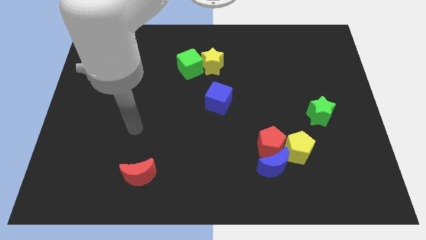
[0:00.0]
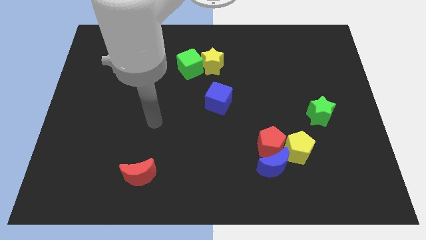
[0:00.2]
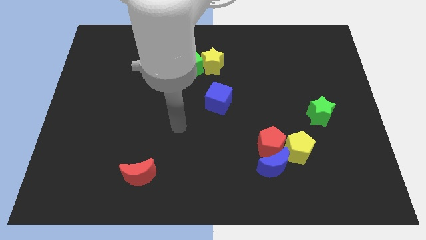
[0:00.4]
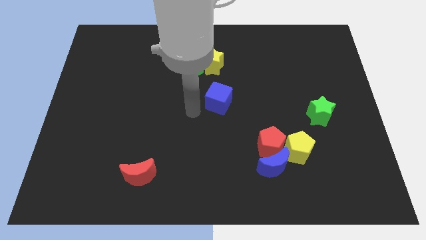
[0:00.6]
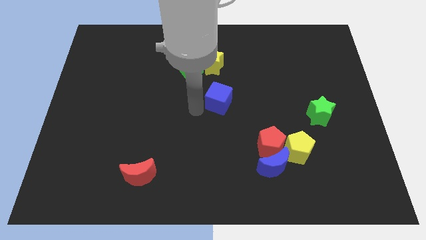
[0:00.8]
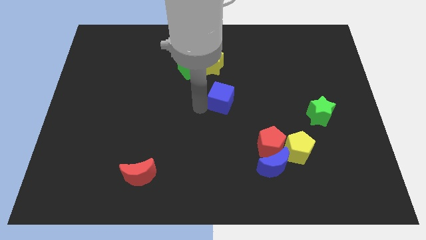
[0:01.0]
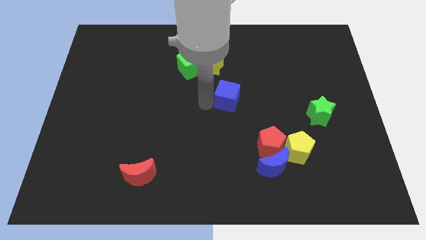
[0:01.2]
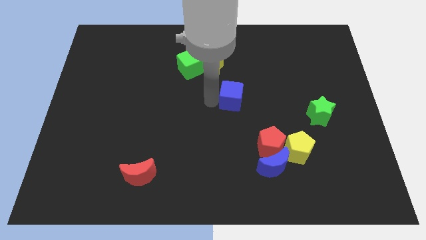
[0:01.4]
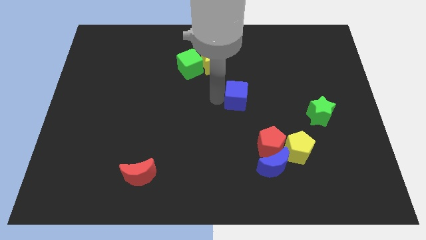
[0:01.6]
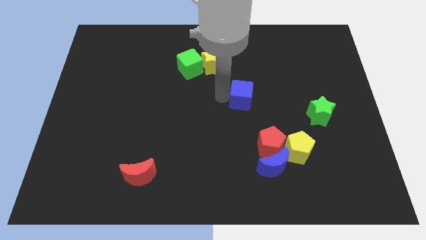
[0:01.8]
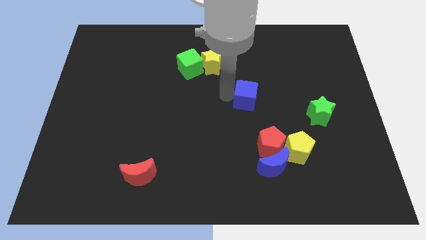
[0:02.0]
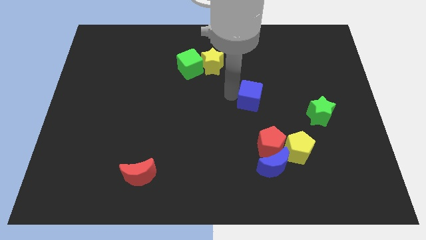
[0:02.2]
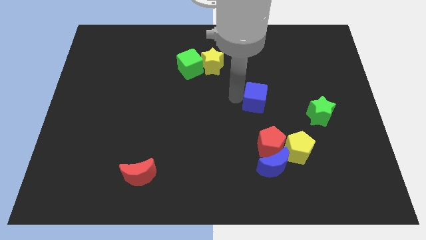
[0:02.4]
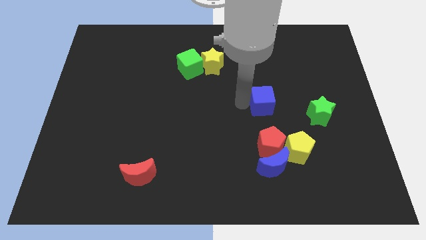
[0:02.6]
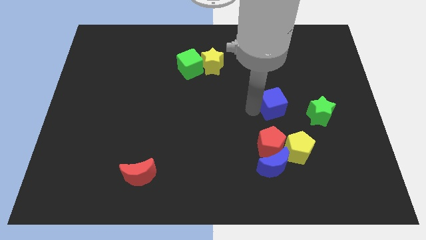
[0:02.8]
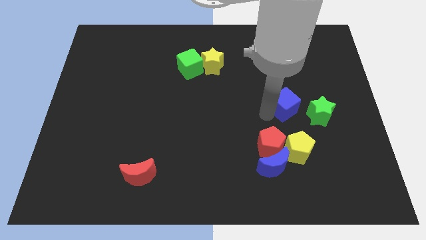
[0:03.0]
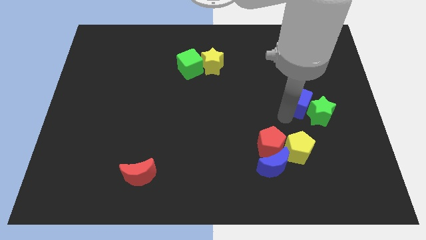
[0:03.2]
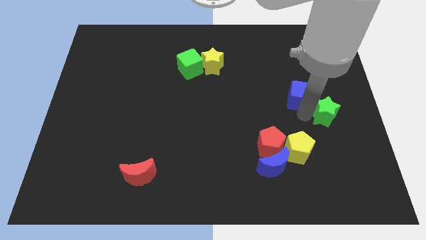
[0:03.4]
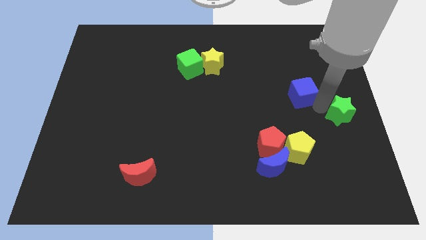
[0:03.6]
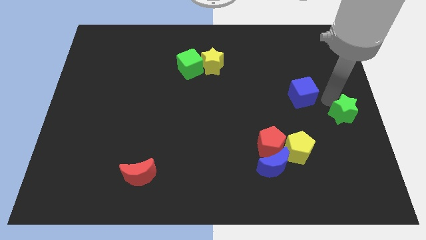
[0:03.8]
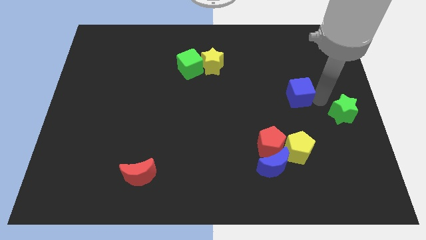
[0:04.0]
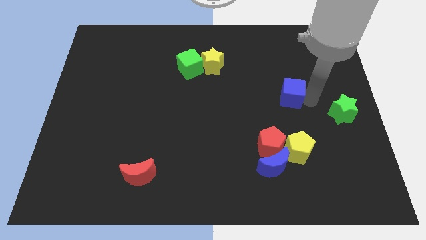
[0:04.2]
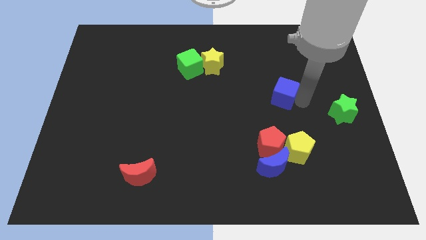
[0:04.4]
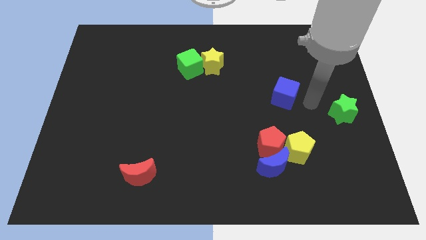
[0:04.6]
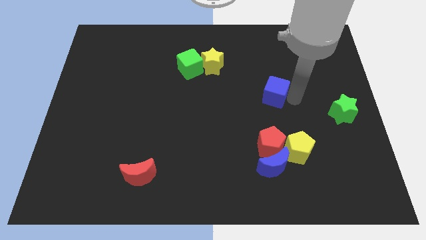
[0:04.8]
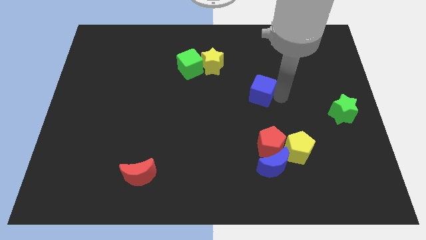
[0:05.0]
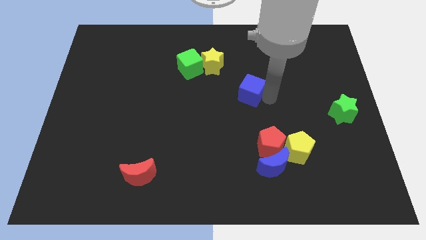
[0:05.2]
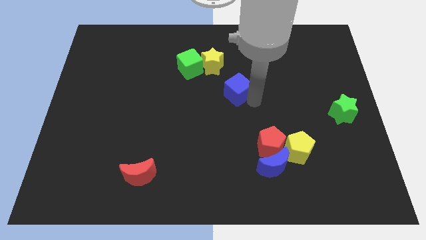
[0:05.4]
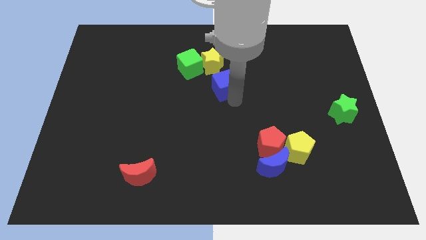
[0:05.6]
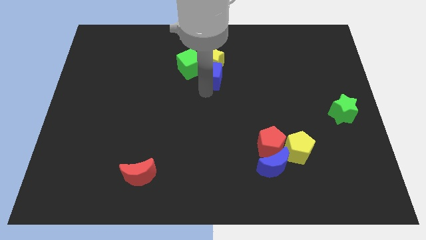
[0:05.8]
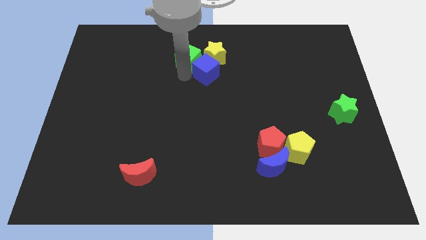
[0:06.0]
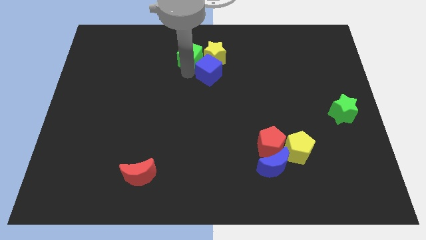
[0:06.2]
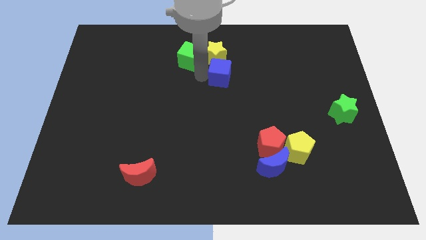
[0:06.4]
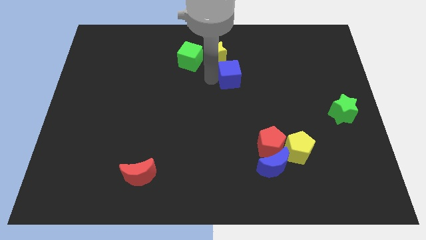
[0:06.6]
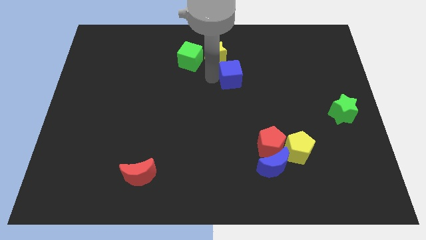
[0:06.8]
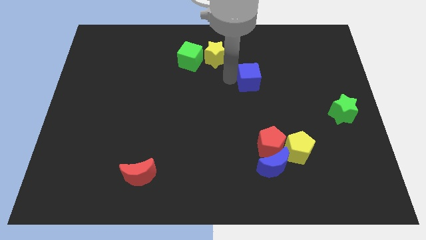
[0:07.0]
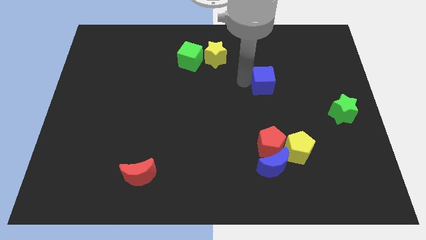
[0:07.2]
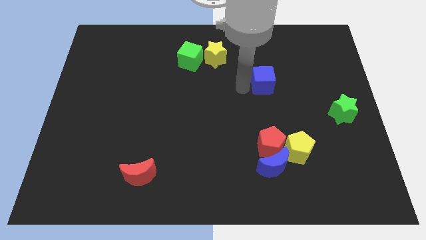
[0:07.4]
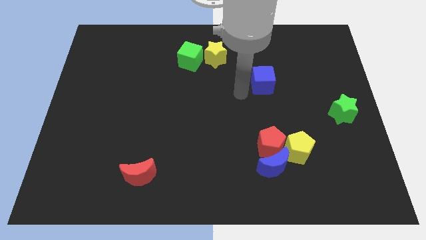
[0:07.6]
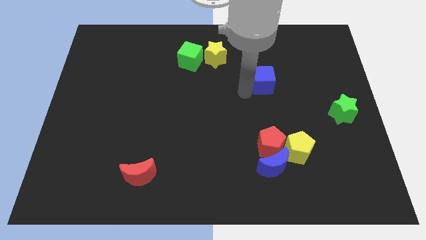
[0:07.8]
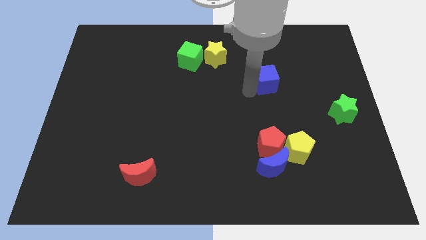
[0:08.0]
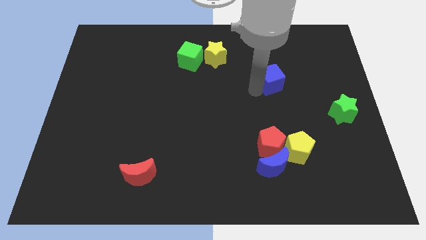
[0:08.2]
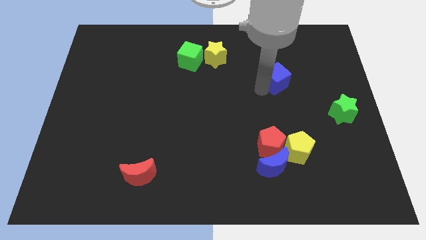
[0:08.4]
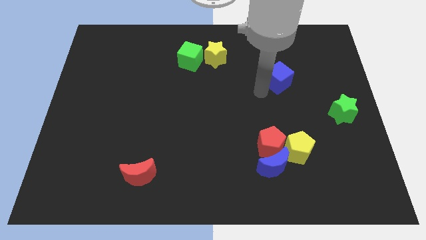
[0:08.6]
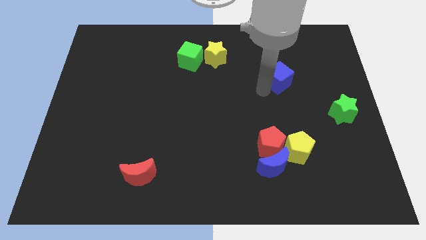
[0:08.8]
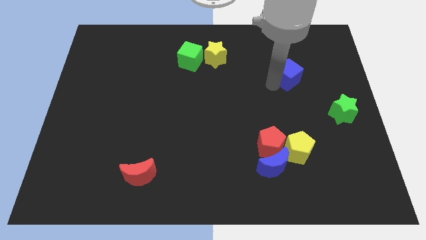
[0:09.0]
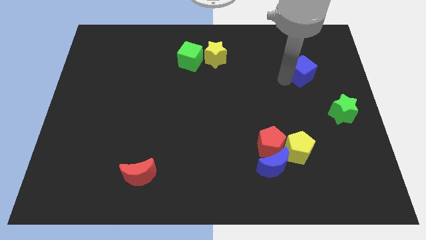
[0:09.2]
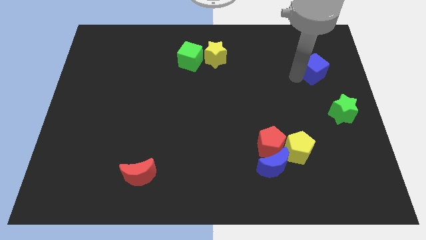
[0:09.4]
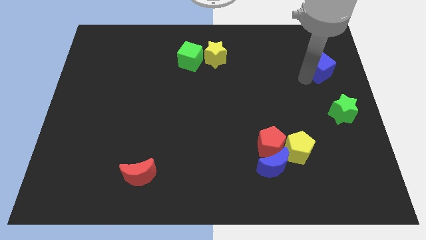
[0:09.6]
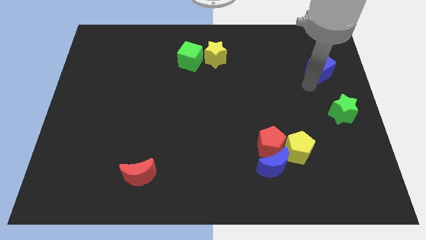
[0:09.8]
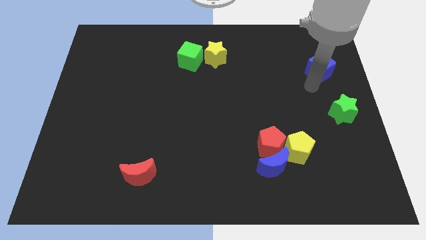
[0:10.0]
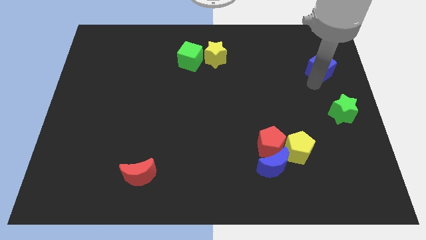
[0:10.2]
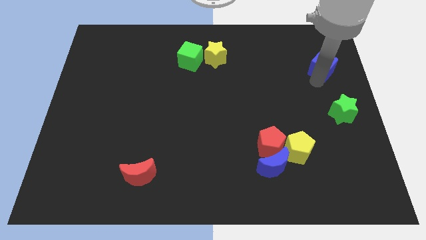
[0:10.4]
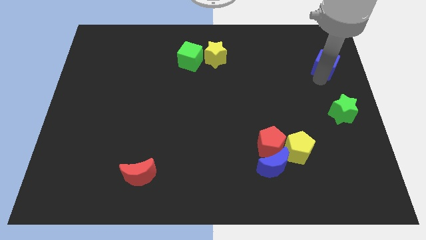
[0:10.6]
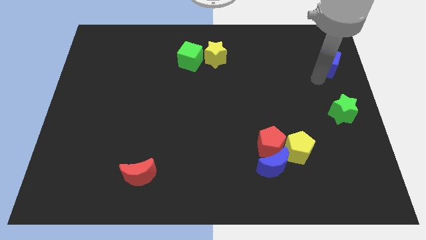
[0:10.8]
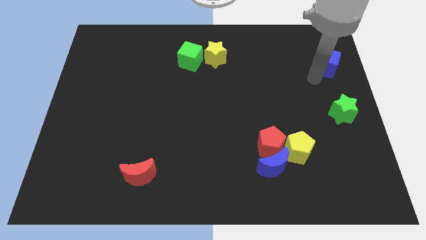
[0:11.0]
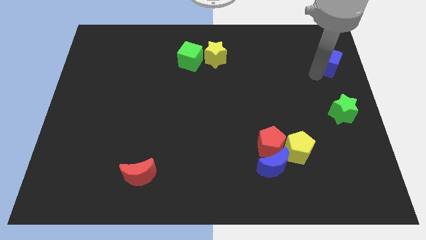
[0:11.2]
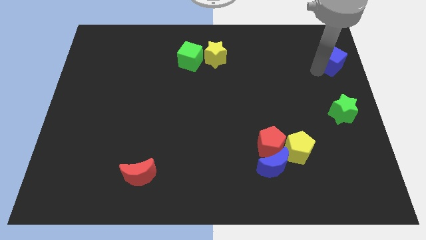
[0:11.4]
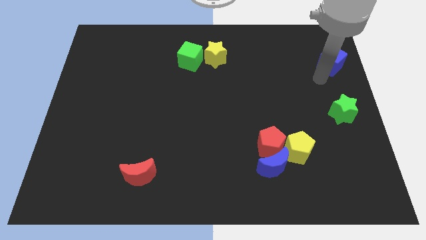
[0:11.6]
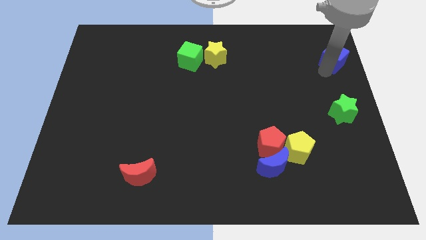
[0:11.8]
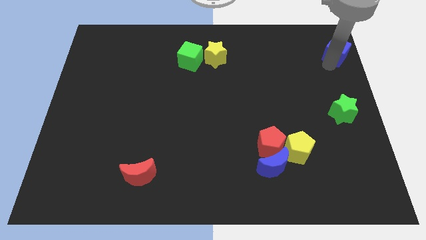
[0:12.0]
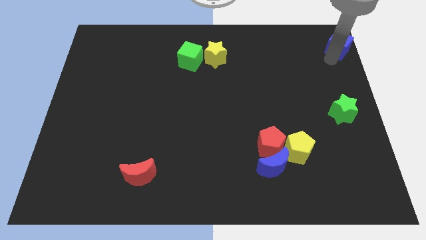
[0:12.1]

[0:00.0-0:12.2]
slide the blue cube to the top right
